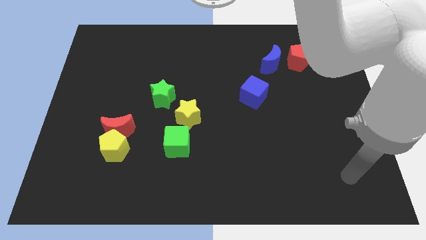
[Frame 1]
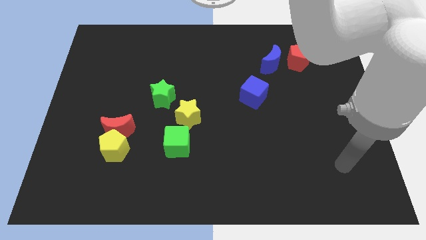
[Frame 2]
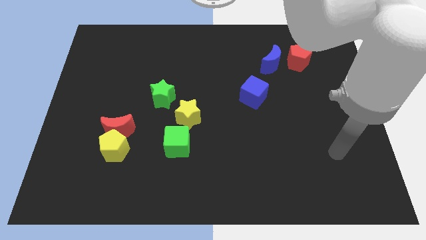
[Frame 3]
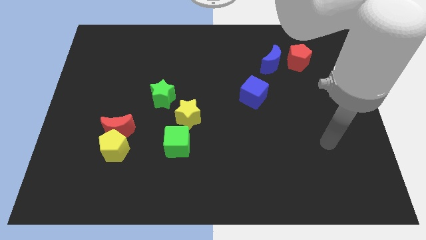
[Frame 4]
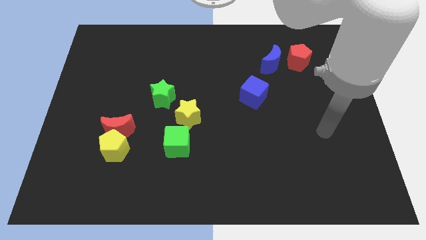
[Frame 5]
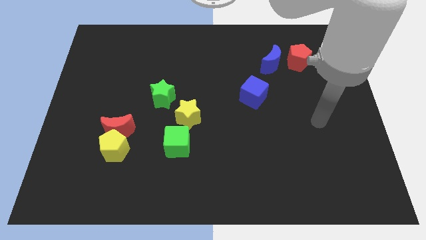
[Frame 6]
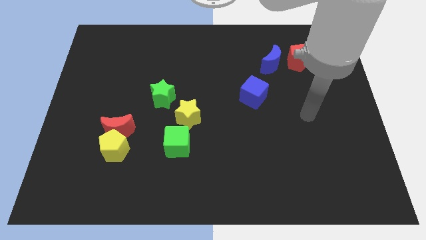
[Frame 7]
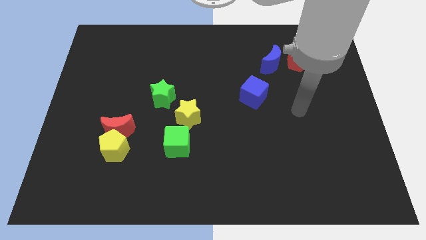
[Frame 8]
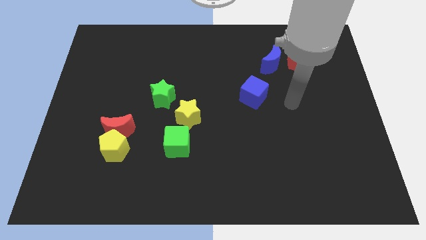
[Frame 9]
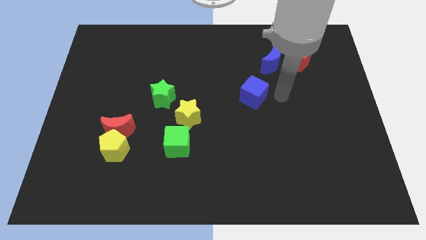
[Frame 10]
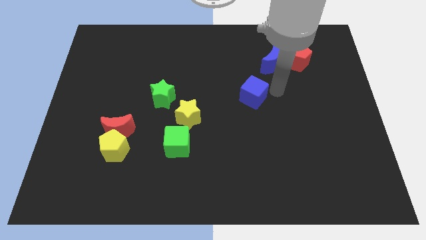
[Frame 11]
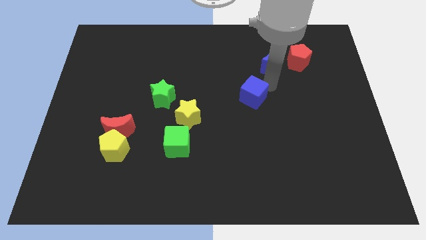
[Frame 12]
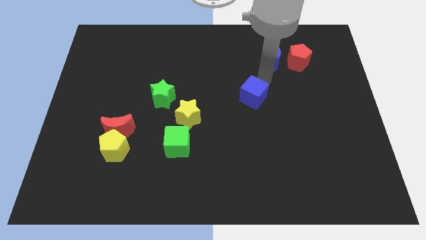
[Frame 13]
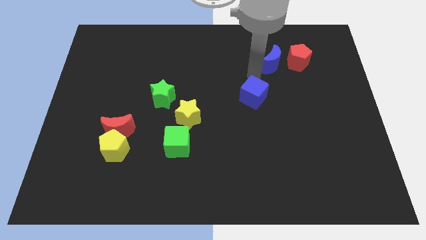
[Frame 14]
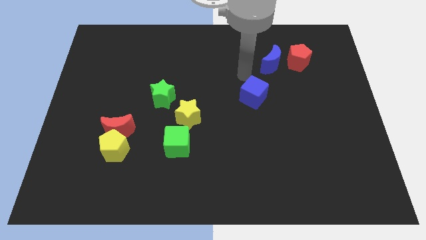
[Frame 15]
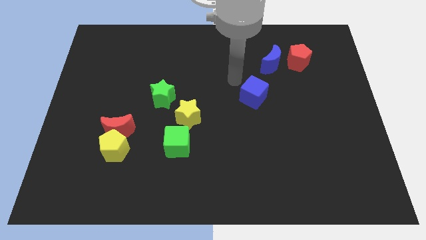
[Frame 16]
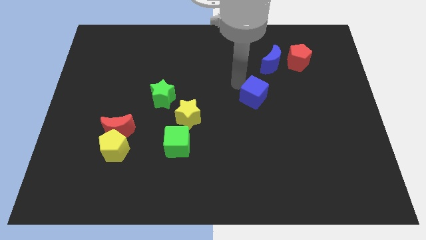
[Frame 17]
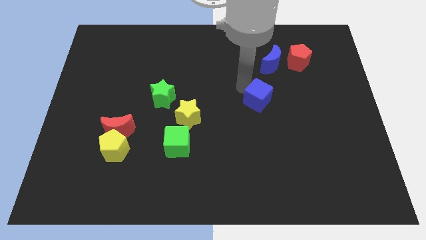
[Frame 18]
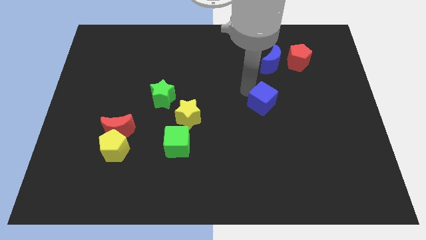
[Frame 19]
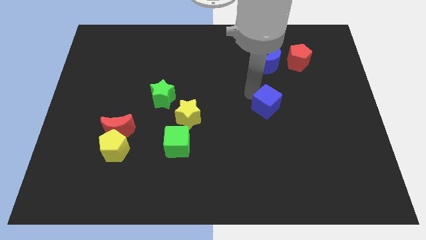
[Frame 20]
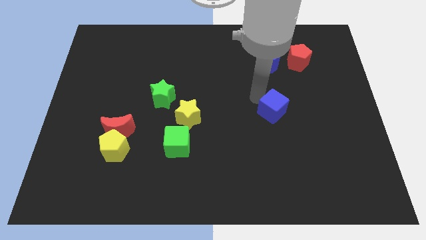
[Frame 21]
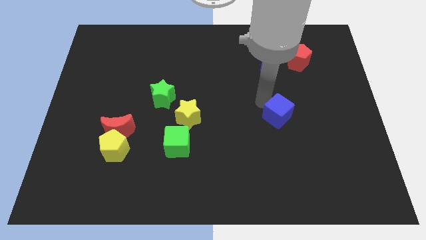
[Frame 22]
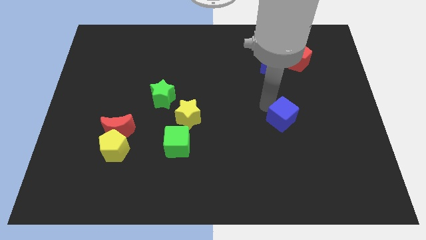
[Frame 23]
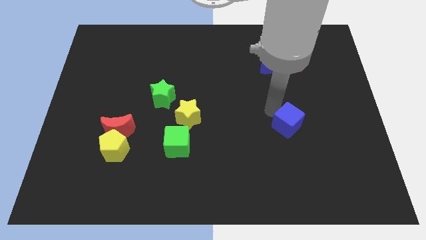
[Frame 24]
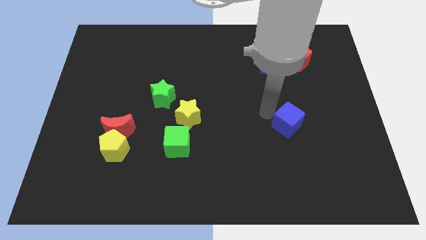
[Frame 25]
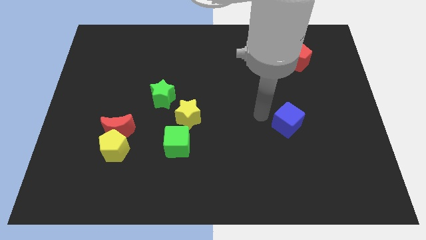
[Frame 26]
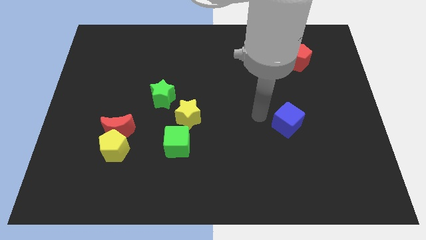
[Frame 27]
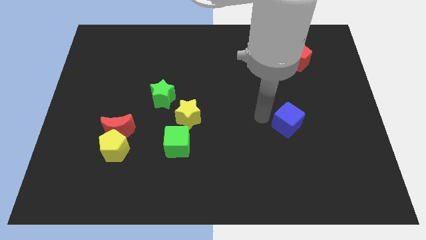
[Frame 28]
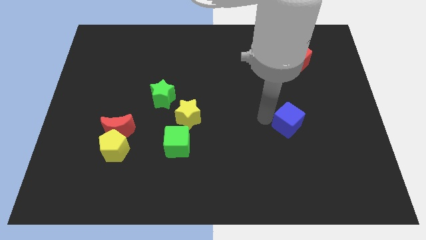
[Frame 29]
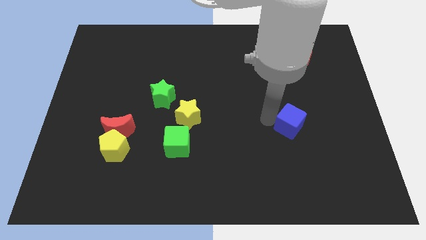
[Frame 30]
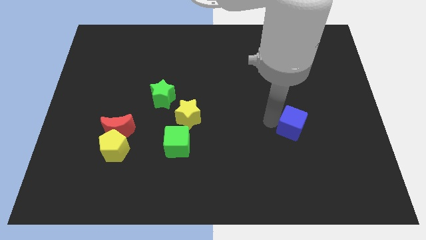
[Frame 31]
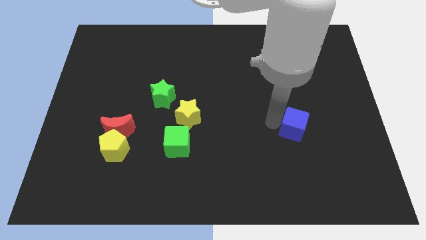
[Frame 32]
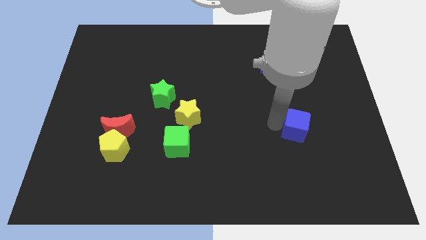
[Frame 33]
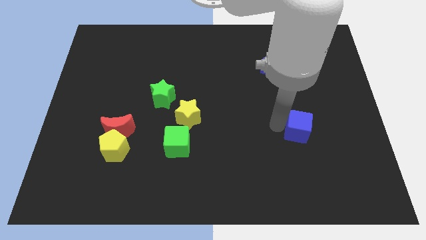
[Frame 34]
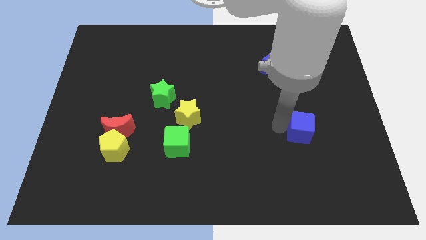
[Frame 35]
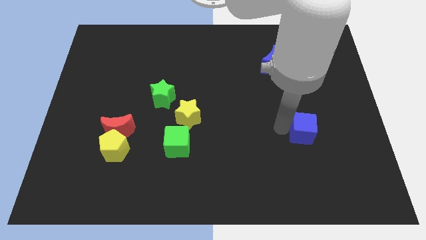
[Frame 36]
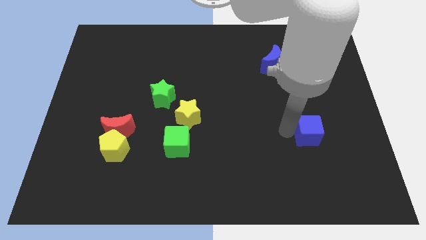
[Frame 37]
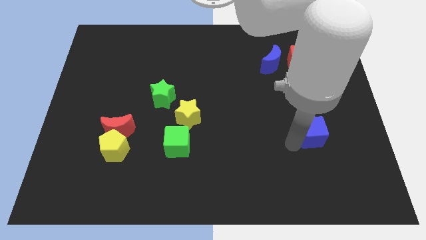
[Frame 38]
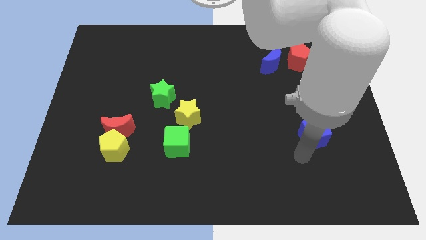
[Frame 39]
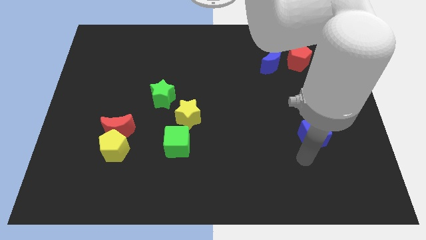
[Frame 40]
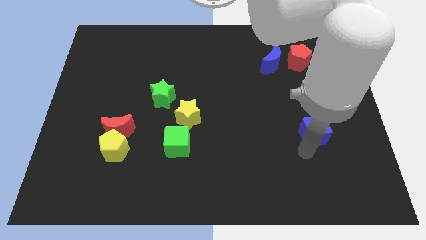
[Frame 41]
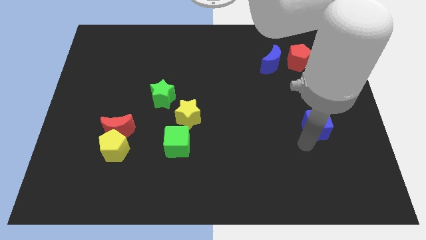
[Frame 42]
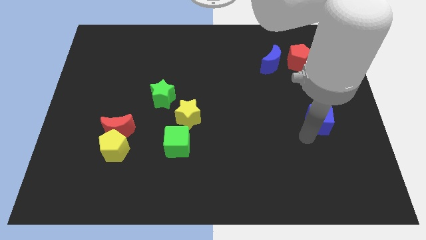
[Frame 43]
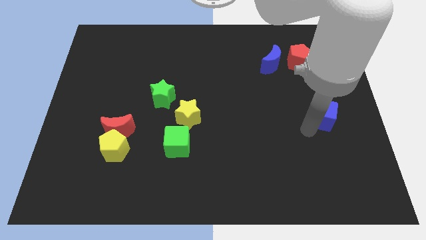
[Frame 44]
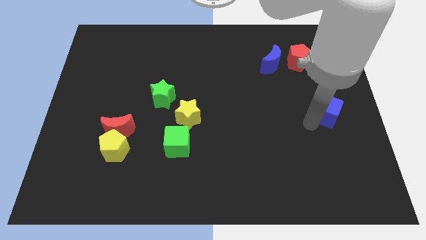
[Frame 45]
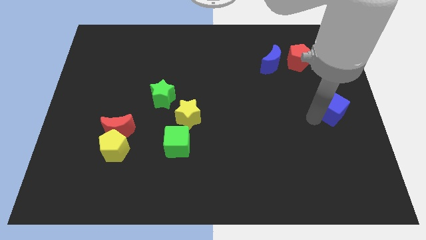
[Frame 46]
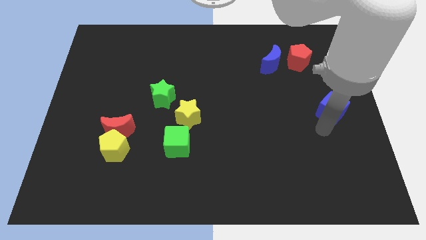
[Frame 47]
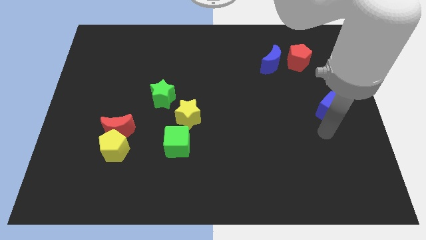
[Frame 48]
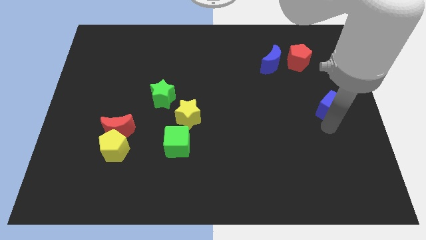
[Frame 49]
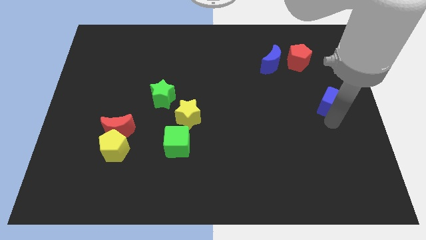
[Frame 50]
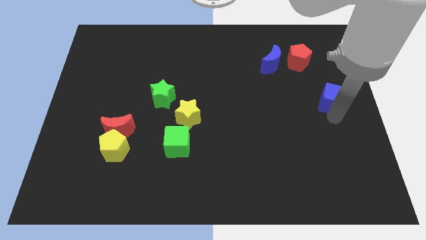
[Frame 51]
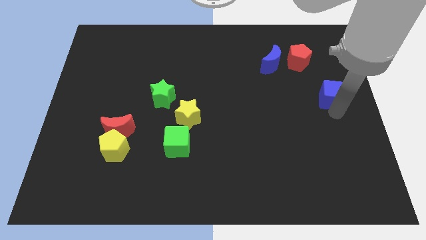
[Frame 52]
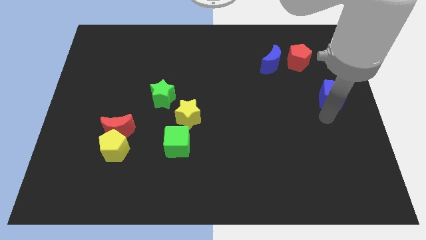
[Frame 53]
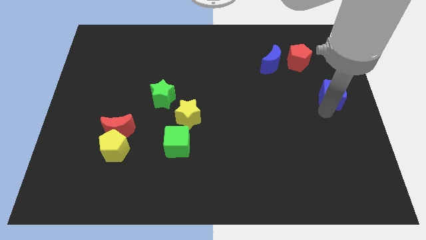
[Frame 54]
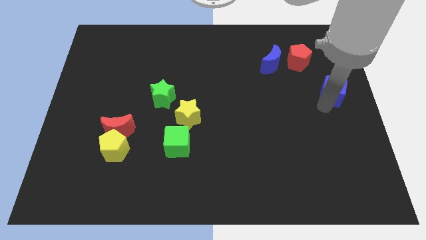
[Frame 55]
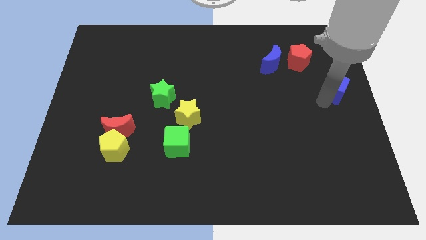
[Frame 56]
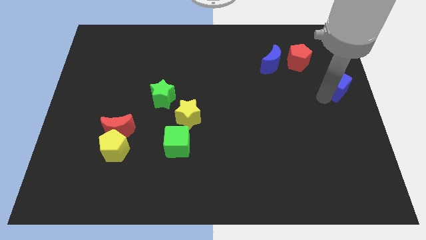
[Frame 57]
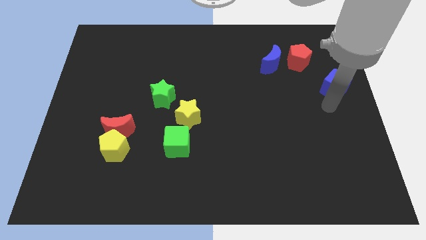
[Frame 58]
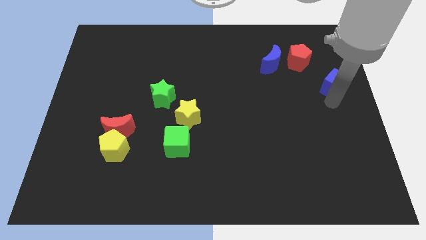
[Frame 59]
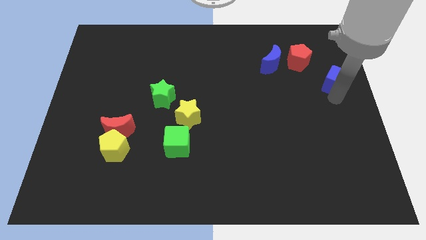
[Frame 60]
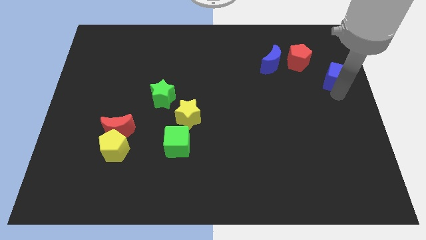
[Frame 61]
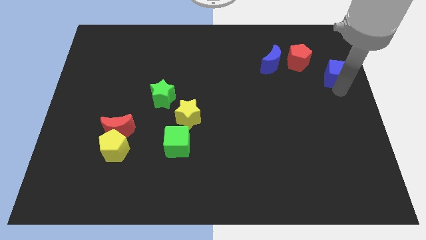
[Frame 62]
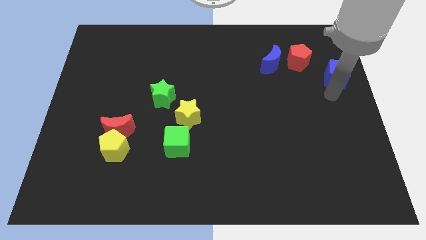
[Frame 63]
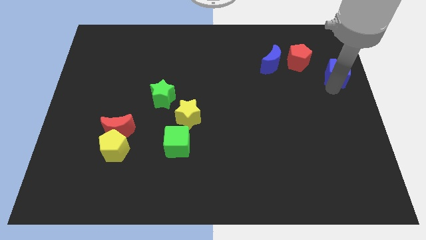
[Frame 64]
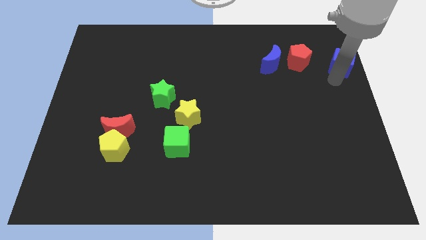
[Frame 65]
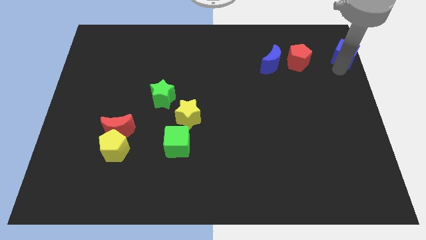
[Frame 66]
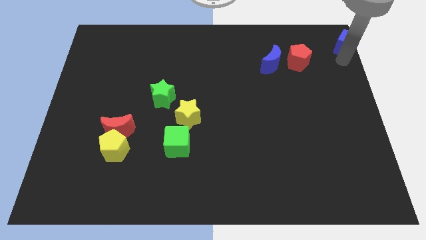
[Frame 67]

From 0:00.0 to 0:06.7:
slide the blue cube to the top right
